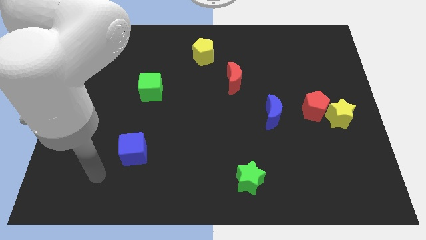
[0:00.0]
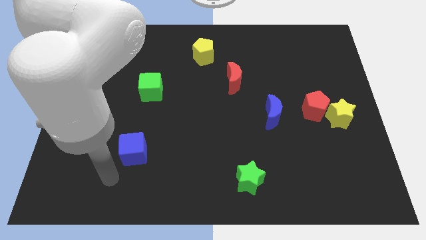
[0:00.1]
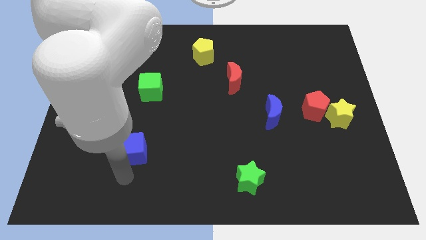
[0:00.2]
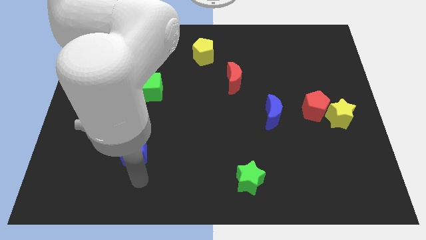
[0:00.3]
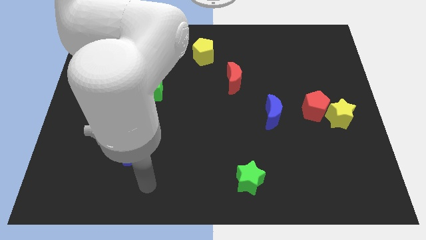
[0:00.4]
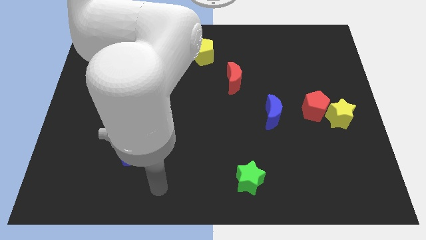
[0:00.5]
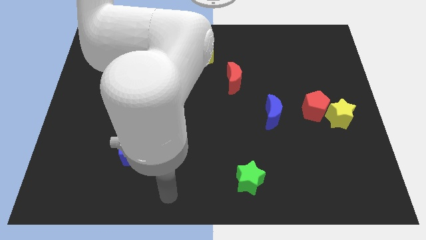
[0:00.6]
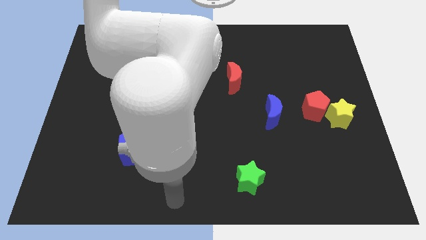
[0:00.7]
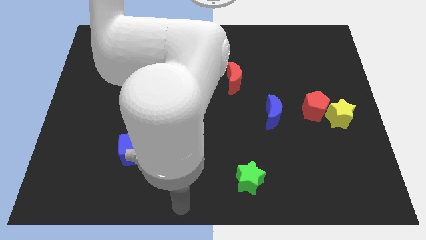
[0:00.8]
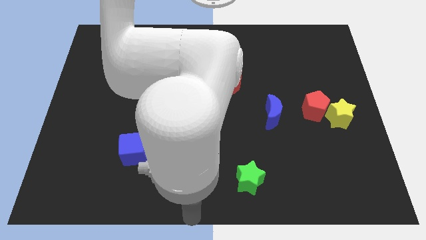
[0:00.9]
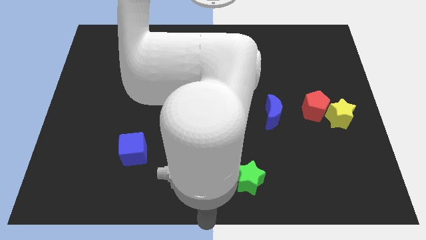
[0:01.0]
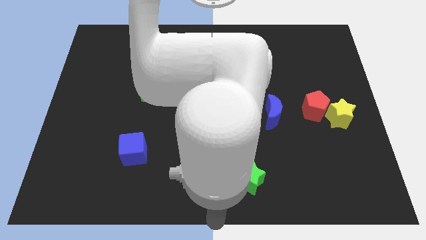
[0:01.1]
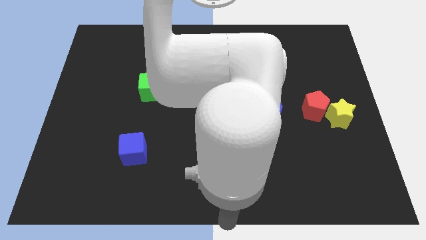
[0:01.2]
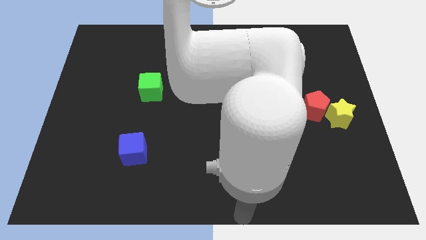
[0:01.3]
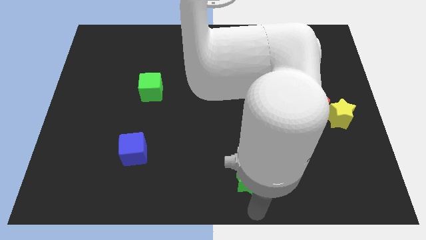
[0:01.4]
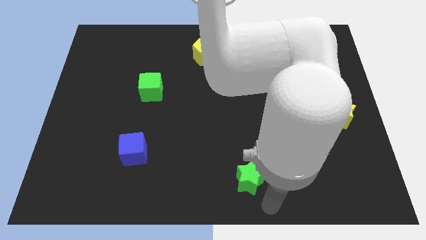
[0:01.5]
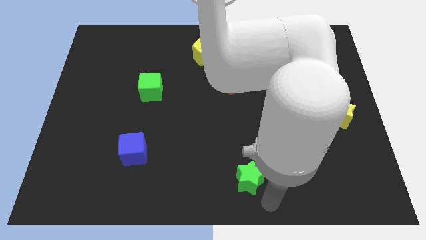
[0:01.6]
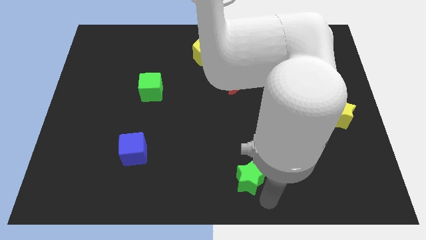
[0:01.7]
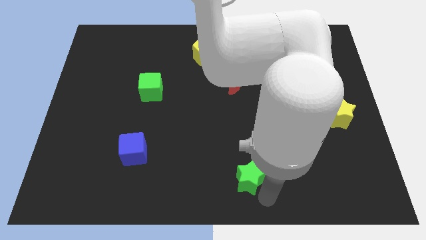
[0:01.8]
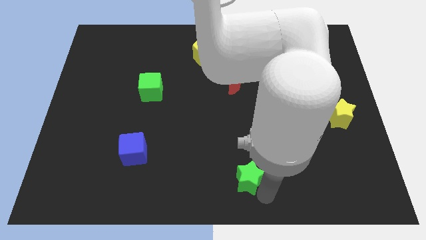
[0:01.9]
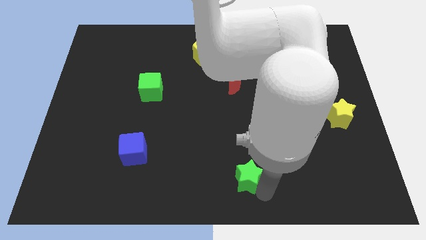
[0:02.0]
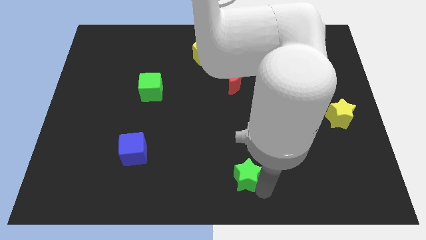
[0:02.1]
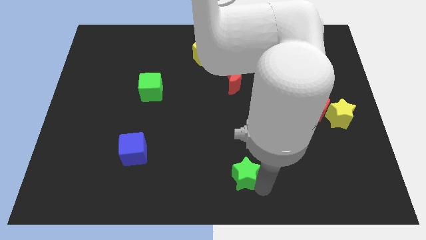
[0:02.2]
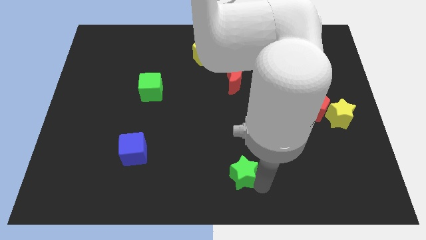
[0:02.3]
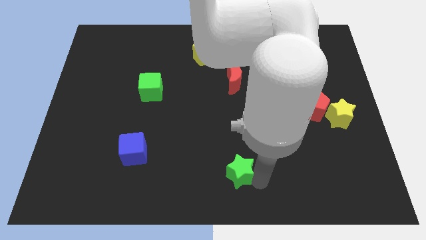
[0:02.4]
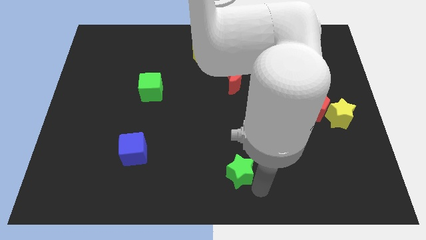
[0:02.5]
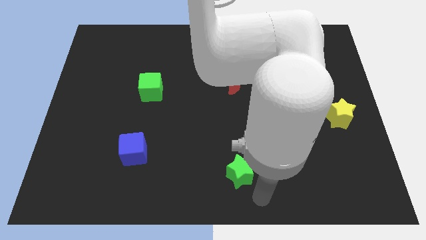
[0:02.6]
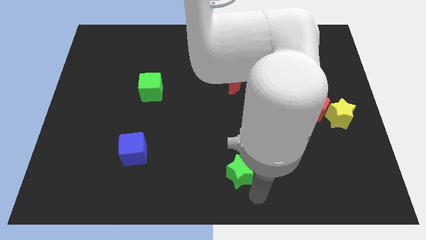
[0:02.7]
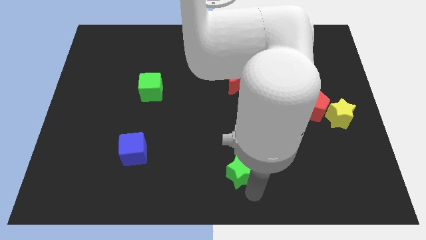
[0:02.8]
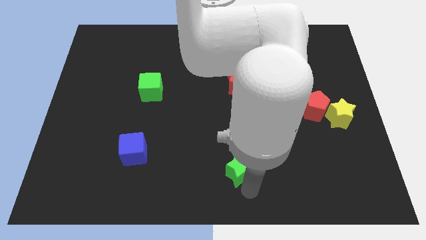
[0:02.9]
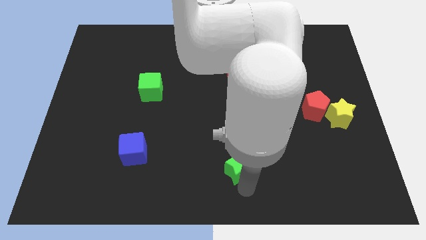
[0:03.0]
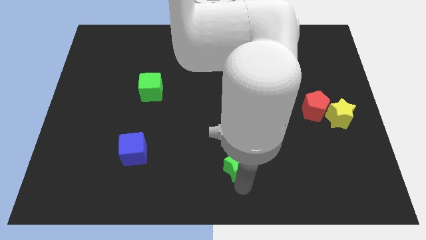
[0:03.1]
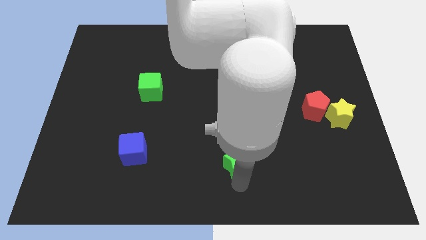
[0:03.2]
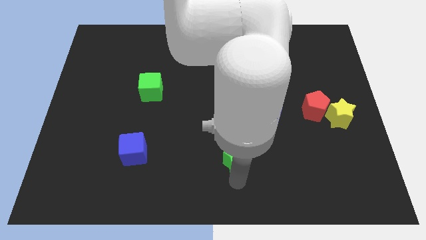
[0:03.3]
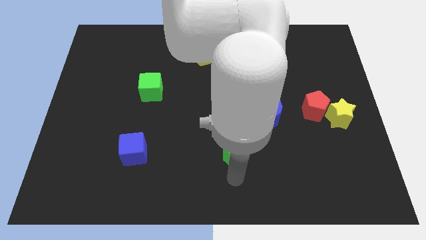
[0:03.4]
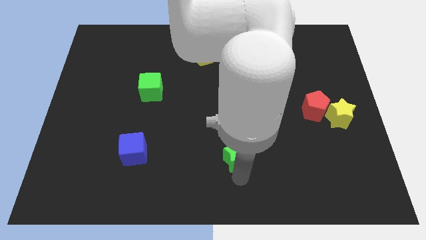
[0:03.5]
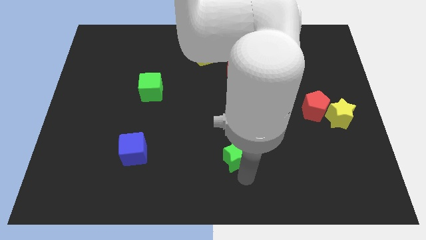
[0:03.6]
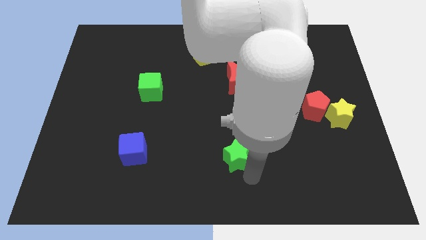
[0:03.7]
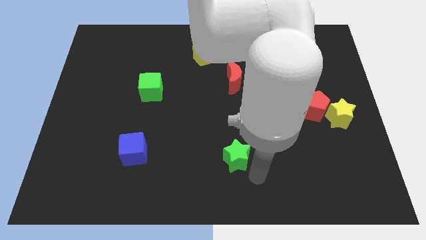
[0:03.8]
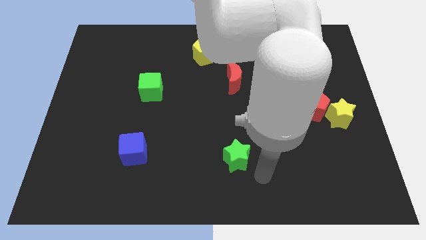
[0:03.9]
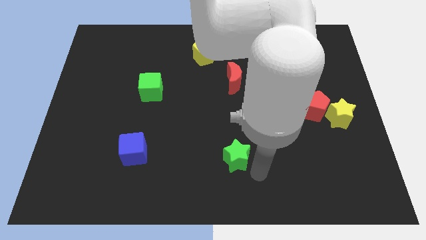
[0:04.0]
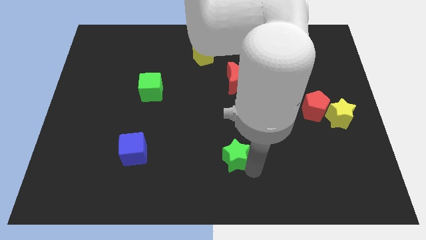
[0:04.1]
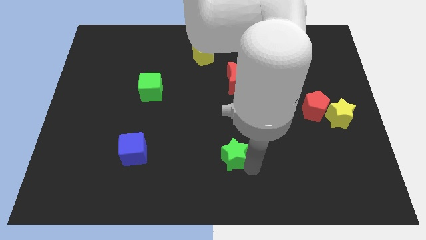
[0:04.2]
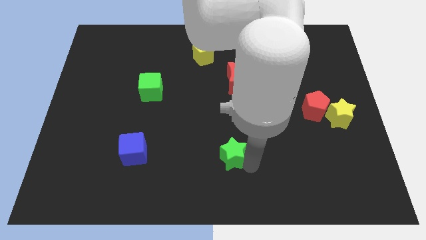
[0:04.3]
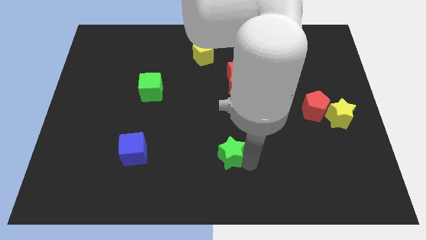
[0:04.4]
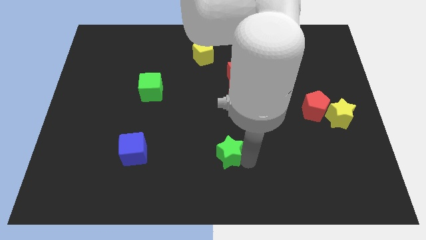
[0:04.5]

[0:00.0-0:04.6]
slide the green star up and left a bit

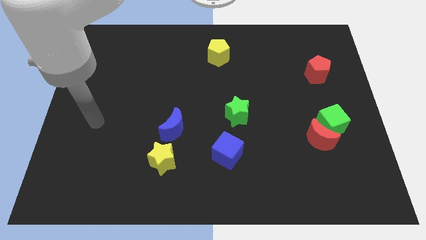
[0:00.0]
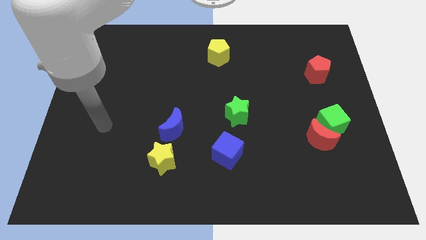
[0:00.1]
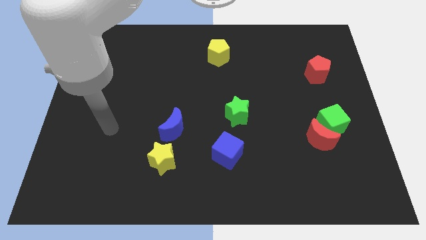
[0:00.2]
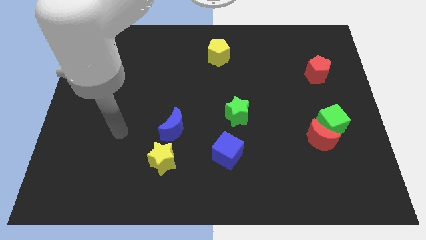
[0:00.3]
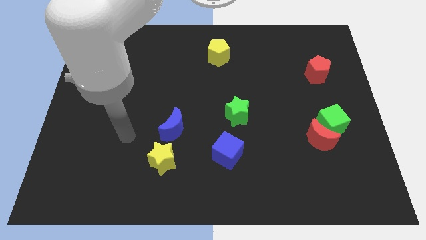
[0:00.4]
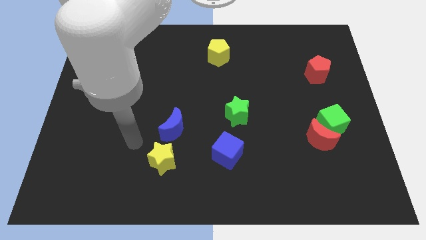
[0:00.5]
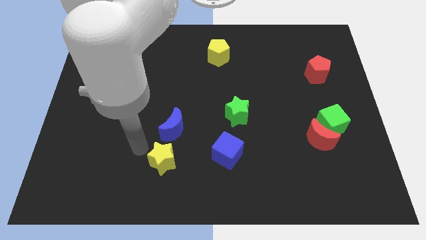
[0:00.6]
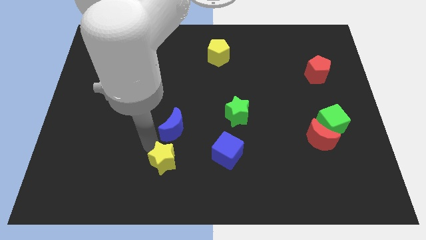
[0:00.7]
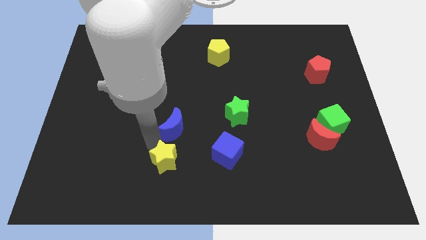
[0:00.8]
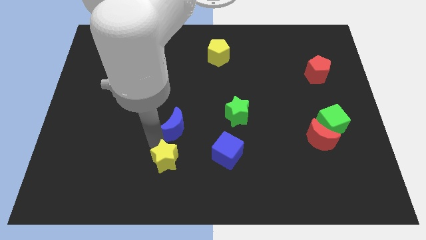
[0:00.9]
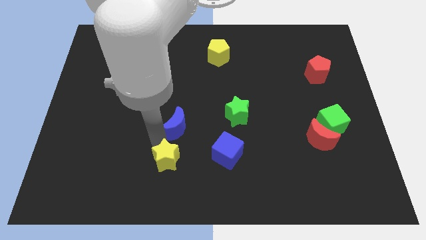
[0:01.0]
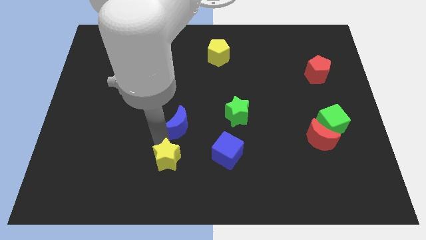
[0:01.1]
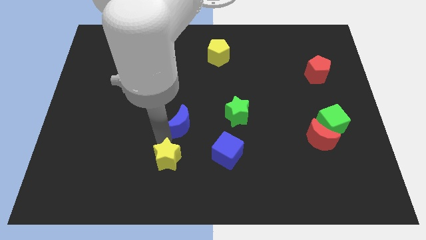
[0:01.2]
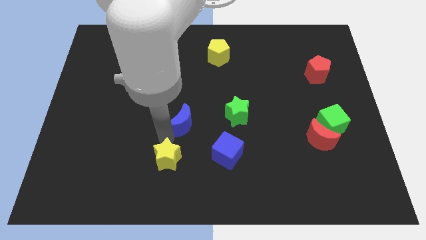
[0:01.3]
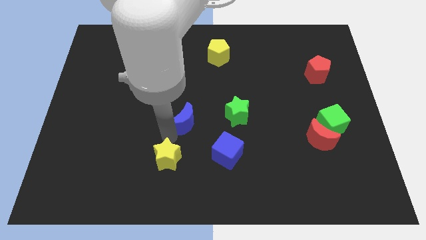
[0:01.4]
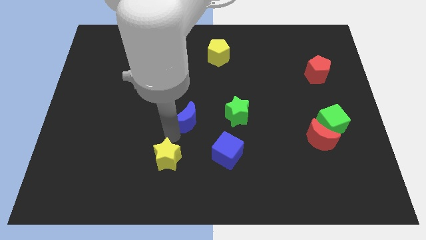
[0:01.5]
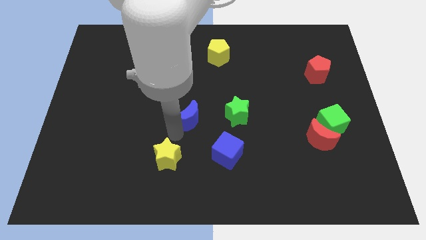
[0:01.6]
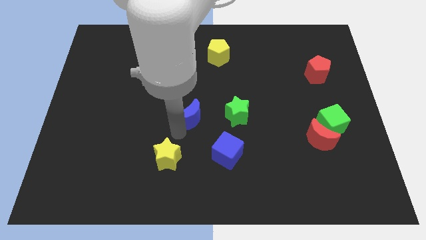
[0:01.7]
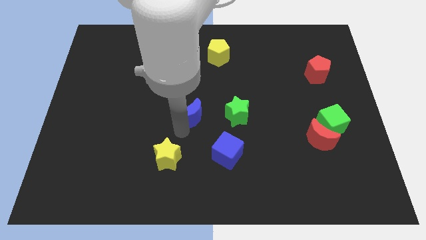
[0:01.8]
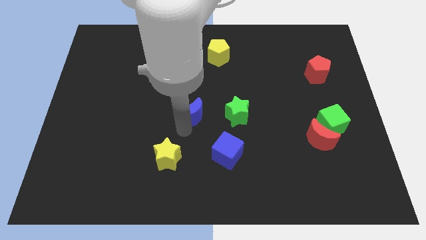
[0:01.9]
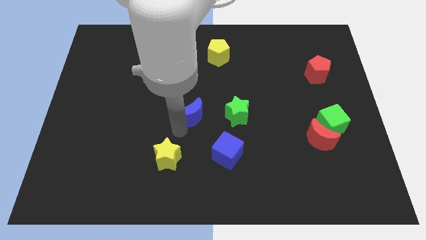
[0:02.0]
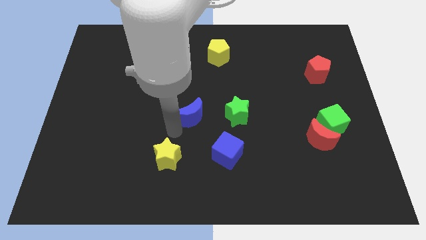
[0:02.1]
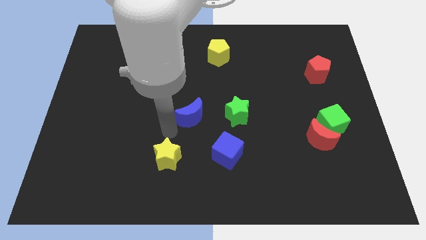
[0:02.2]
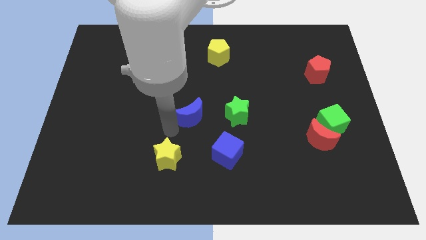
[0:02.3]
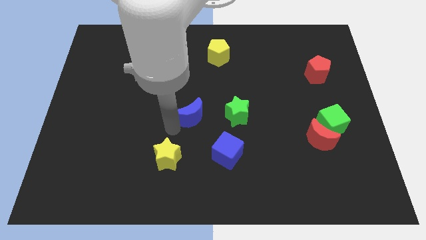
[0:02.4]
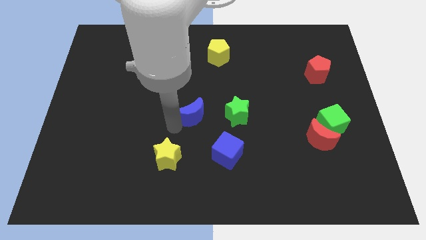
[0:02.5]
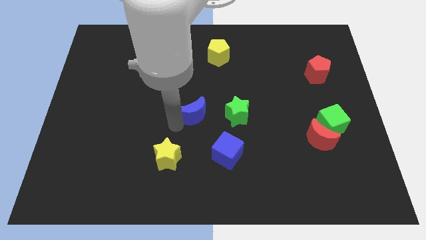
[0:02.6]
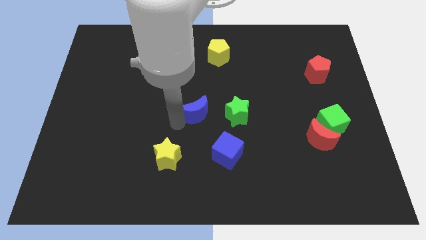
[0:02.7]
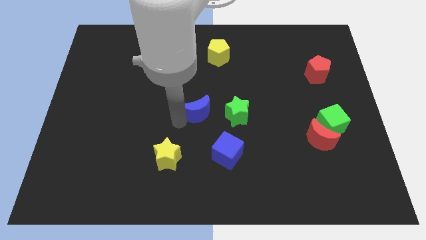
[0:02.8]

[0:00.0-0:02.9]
move the blue moon up and then to the right a little
